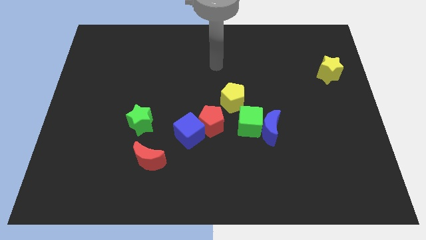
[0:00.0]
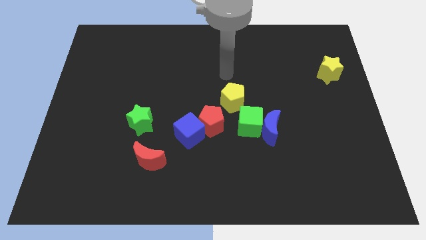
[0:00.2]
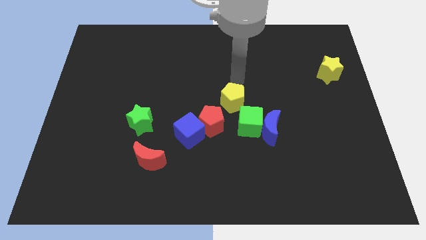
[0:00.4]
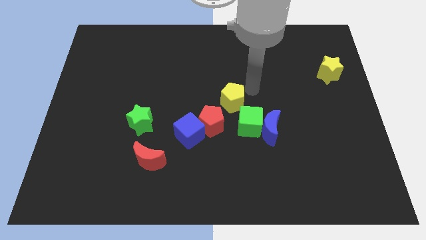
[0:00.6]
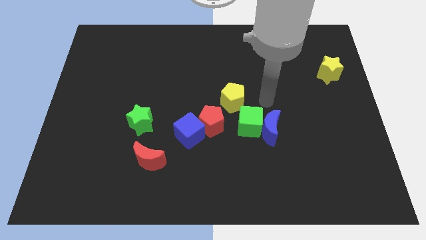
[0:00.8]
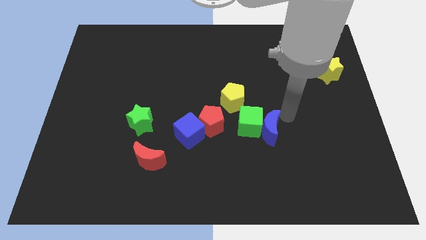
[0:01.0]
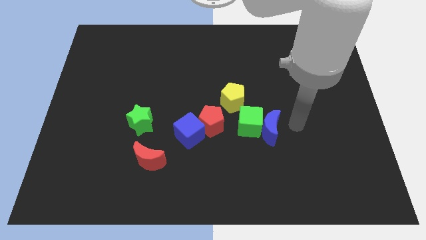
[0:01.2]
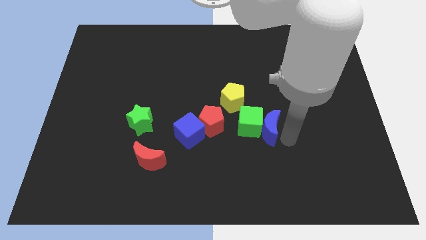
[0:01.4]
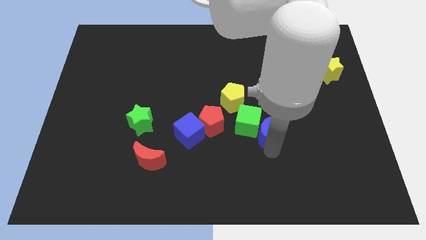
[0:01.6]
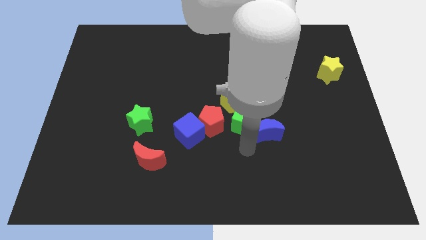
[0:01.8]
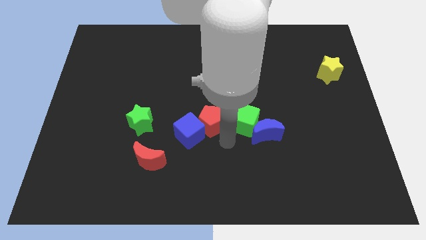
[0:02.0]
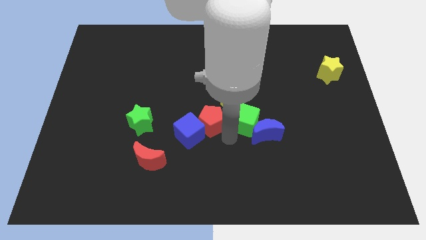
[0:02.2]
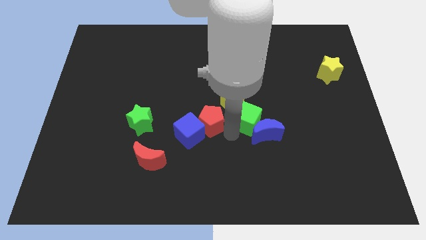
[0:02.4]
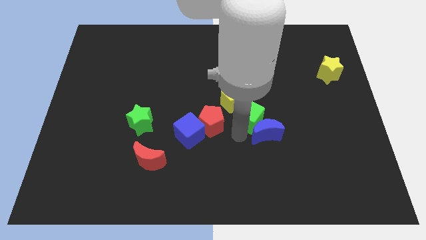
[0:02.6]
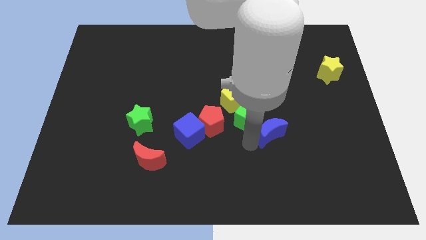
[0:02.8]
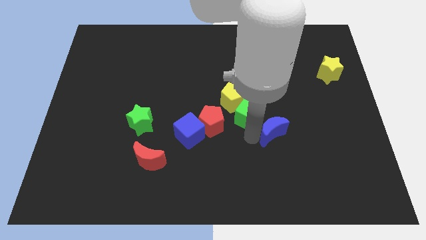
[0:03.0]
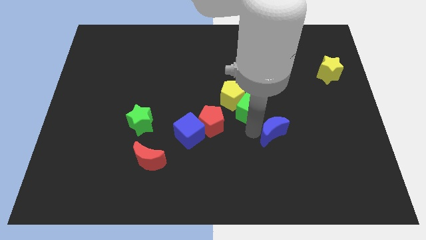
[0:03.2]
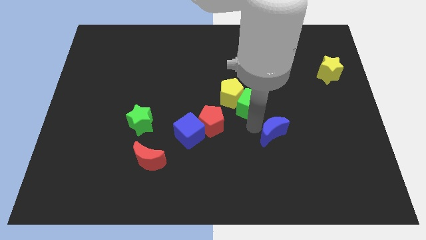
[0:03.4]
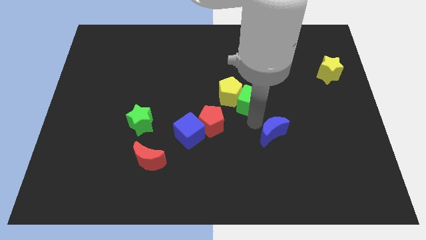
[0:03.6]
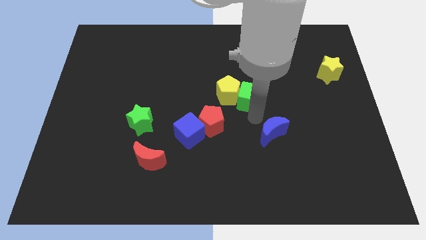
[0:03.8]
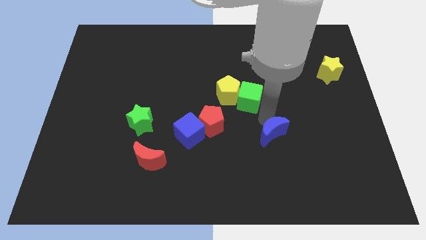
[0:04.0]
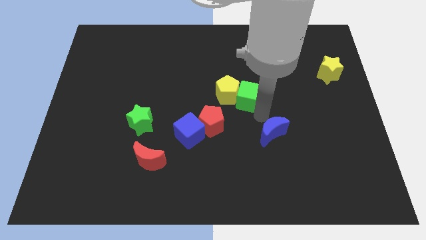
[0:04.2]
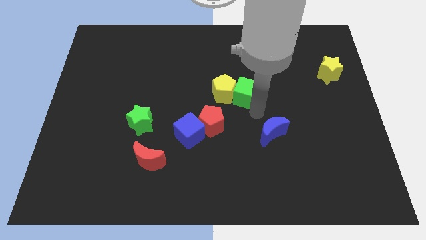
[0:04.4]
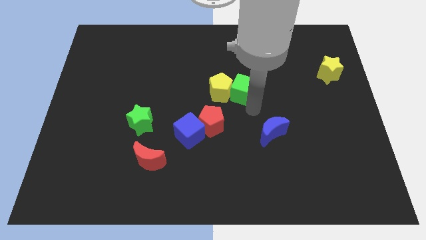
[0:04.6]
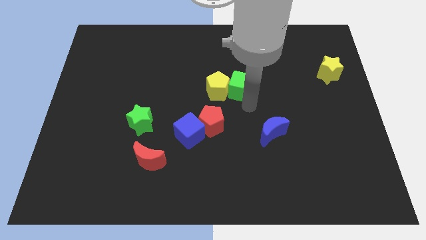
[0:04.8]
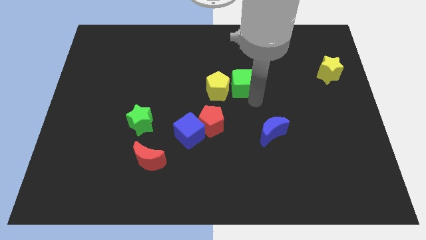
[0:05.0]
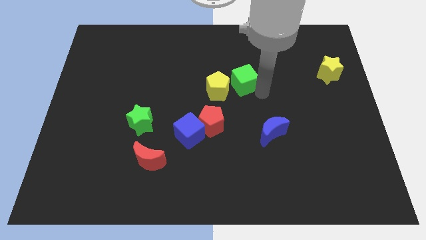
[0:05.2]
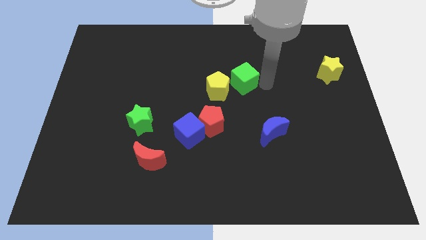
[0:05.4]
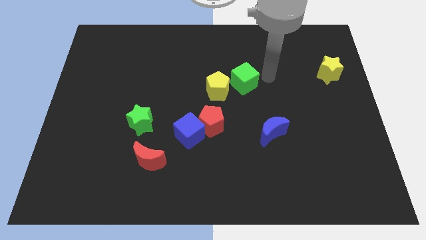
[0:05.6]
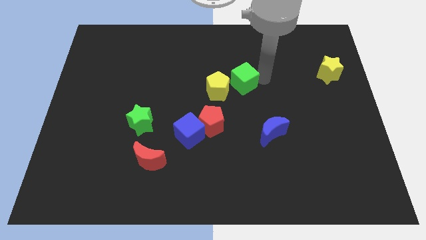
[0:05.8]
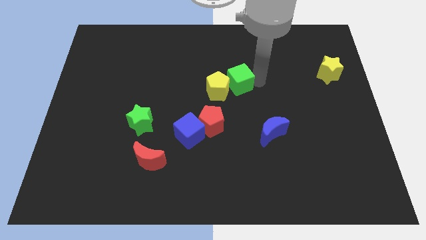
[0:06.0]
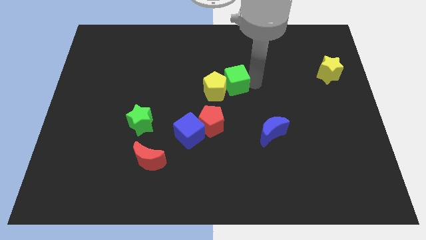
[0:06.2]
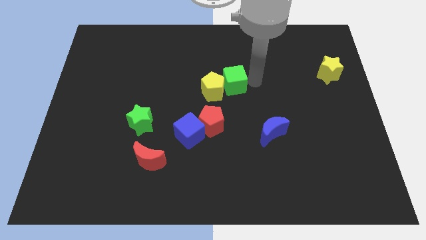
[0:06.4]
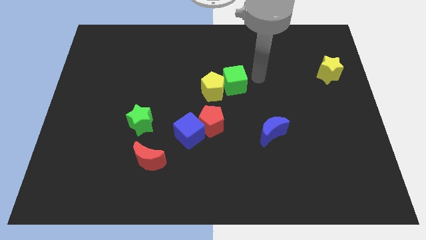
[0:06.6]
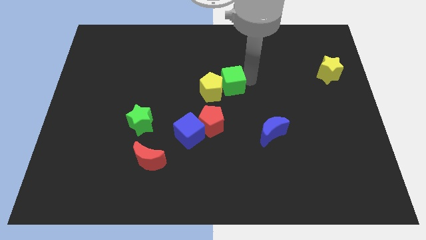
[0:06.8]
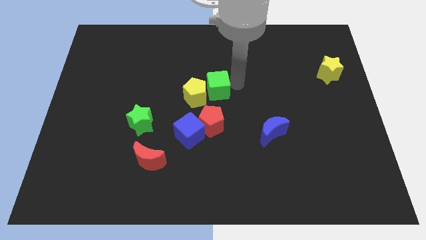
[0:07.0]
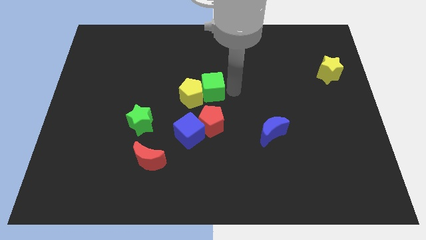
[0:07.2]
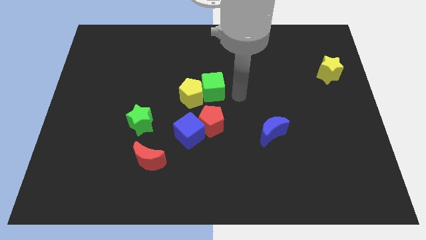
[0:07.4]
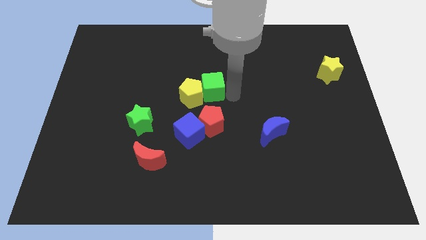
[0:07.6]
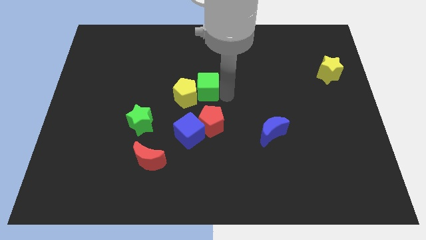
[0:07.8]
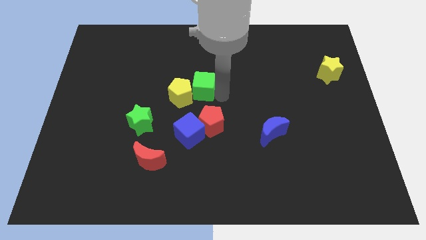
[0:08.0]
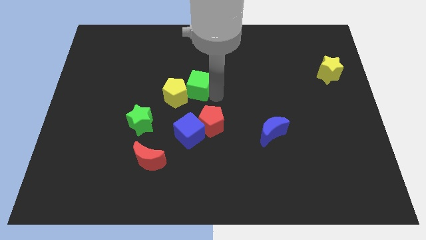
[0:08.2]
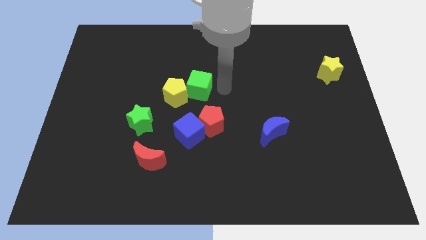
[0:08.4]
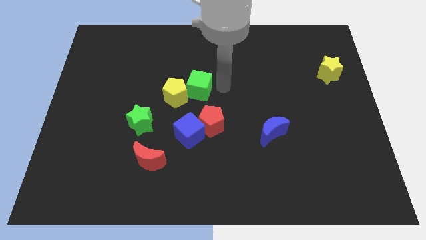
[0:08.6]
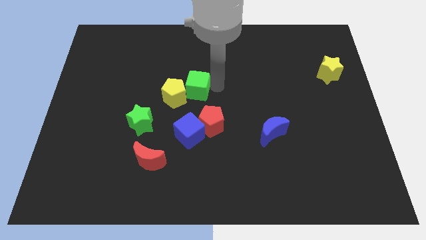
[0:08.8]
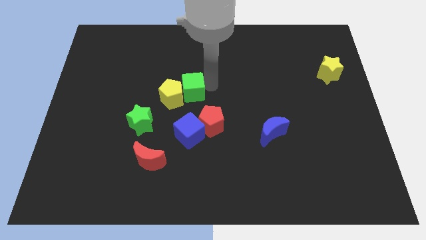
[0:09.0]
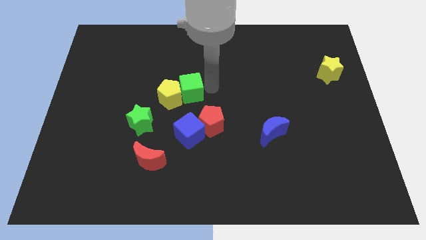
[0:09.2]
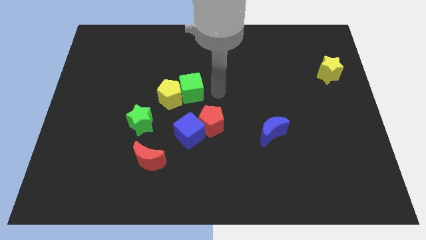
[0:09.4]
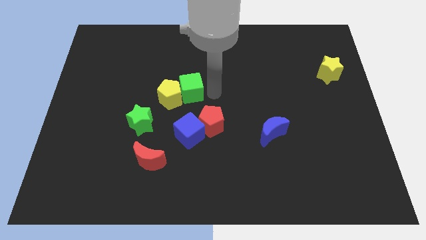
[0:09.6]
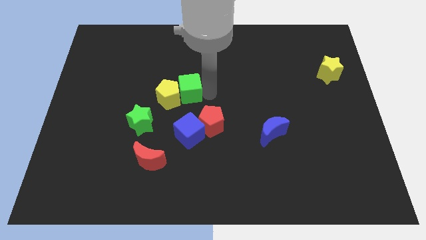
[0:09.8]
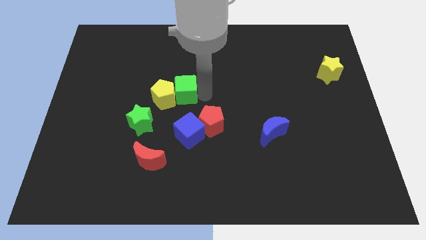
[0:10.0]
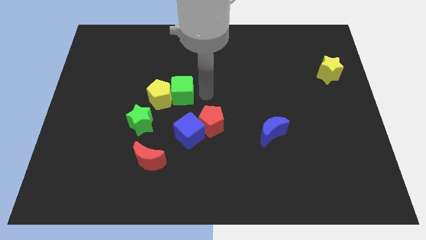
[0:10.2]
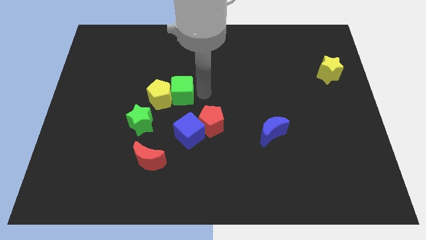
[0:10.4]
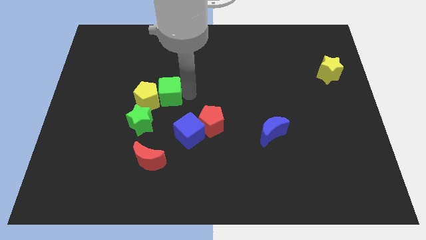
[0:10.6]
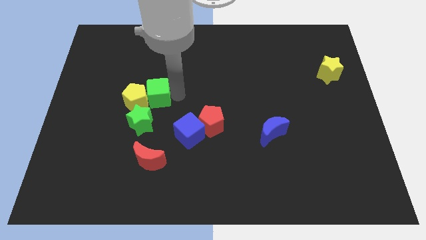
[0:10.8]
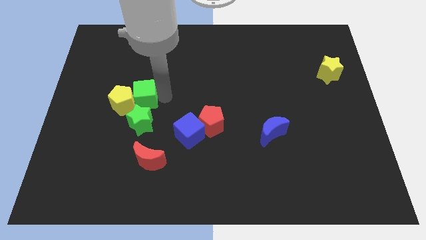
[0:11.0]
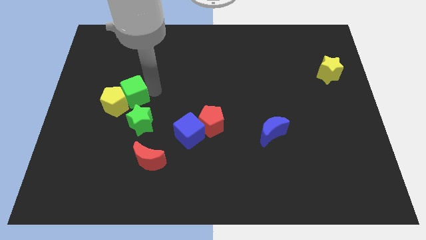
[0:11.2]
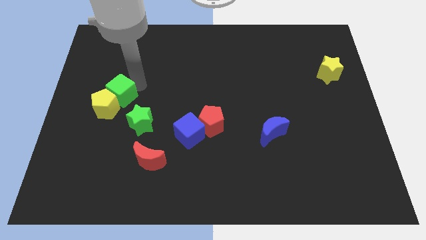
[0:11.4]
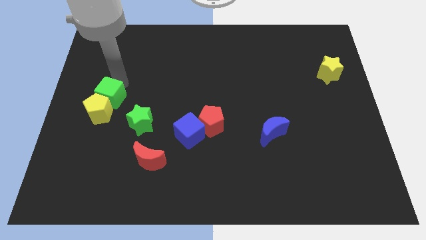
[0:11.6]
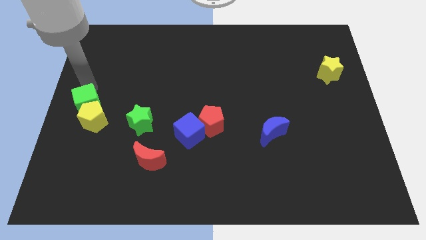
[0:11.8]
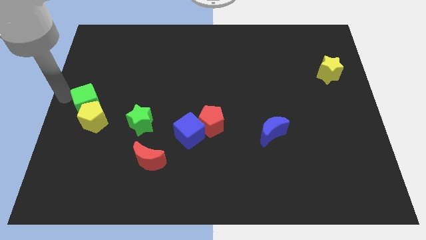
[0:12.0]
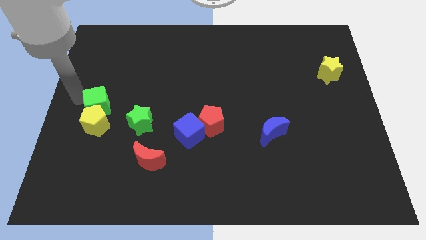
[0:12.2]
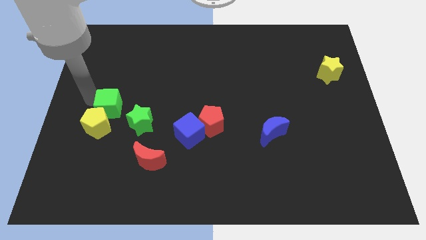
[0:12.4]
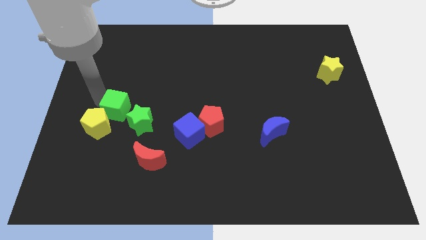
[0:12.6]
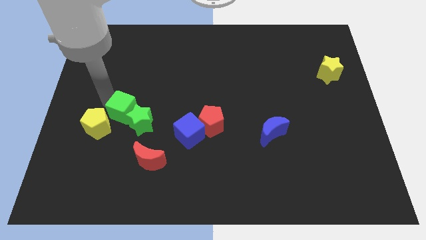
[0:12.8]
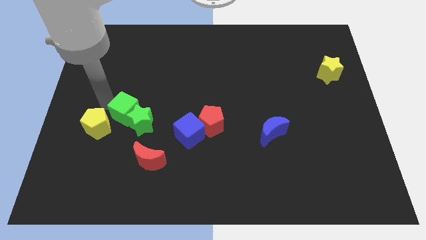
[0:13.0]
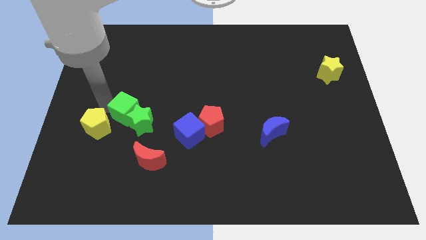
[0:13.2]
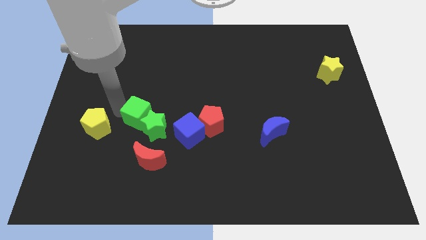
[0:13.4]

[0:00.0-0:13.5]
put the green cube to the top side of the red moon

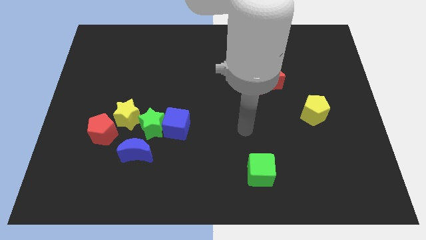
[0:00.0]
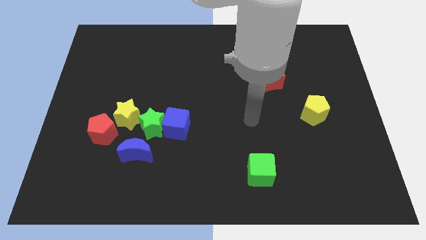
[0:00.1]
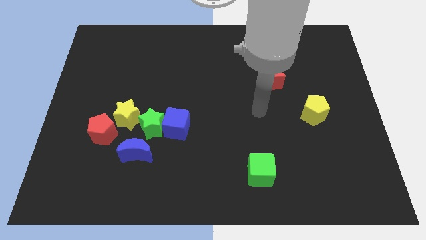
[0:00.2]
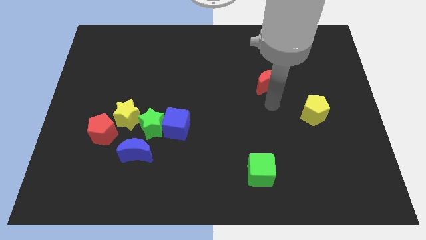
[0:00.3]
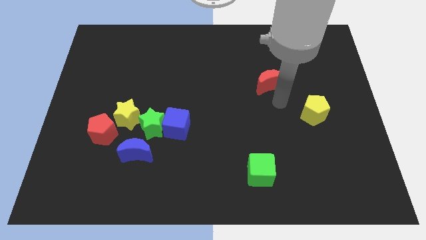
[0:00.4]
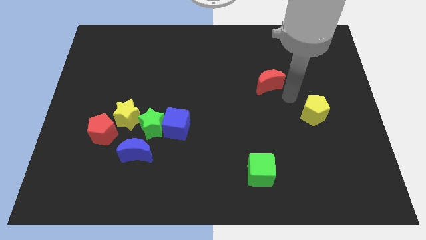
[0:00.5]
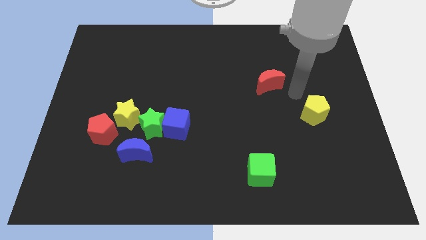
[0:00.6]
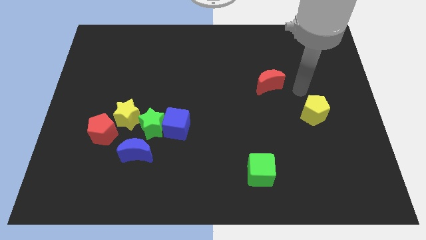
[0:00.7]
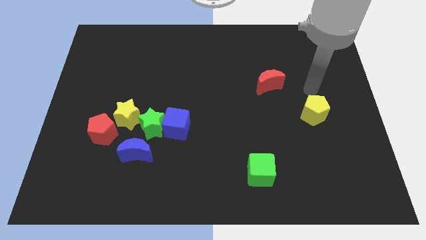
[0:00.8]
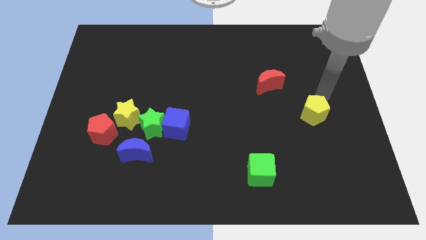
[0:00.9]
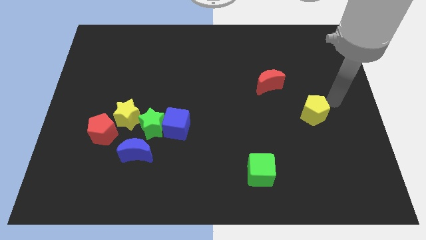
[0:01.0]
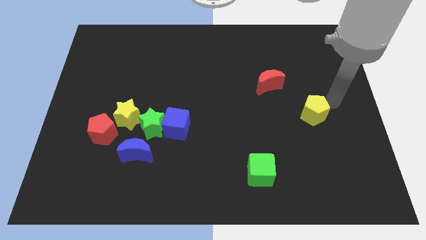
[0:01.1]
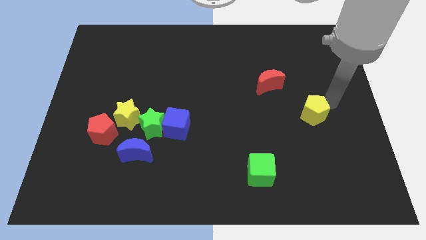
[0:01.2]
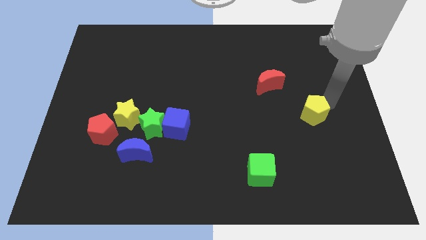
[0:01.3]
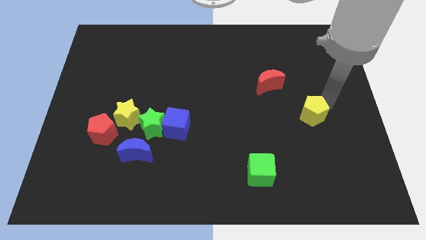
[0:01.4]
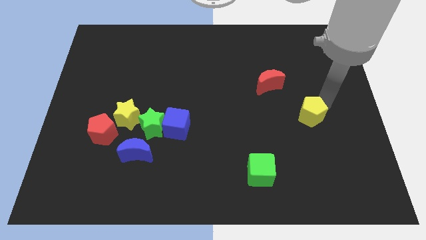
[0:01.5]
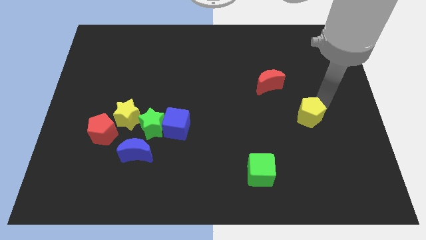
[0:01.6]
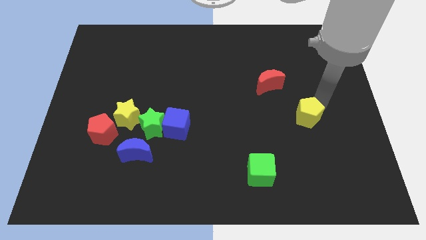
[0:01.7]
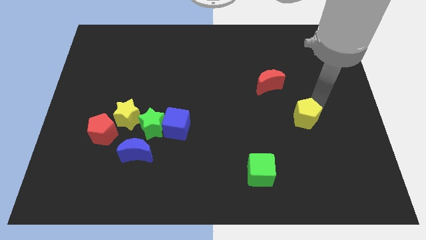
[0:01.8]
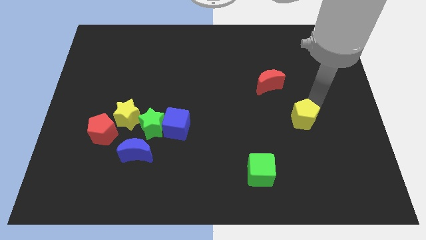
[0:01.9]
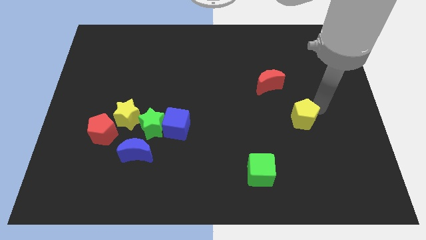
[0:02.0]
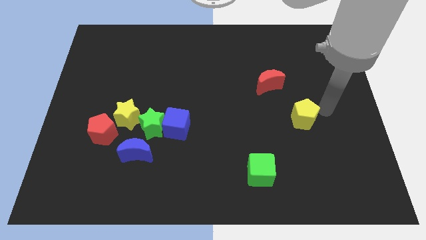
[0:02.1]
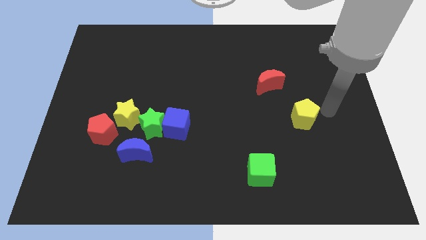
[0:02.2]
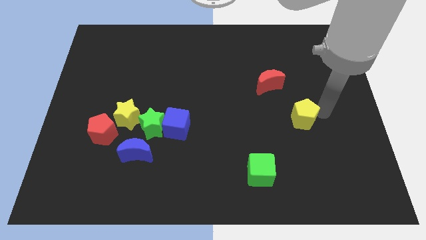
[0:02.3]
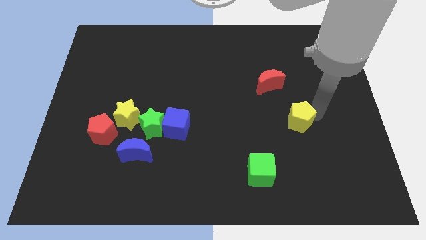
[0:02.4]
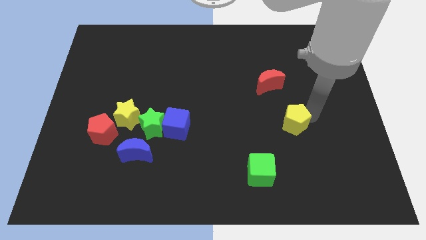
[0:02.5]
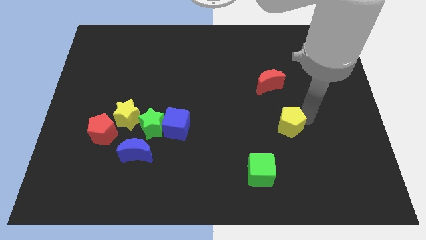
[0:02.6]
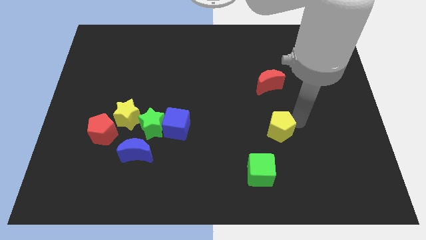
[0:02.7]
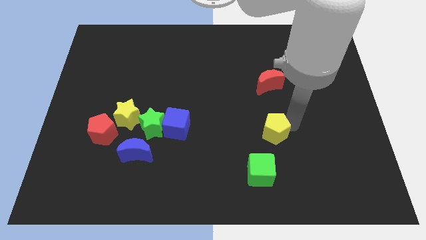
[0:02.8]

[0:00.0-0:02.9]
push the yellow pentagon above the green cube
